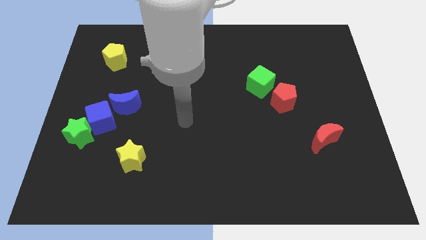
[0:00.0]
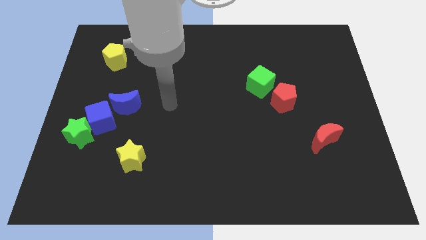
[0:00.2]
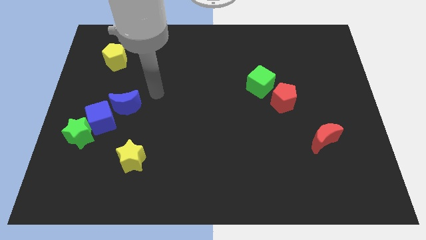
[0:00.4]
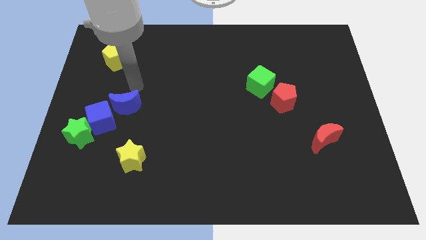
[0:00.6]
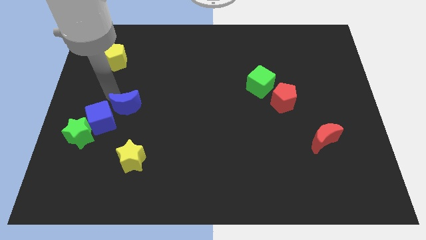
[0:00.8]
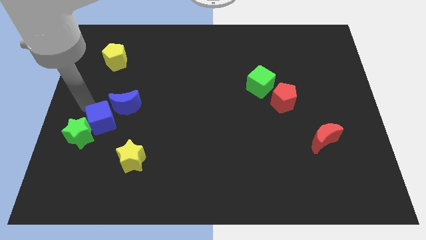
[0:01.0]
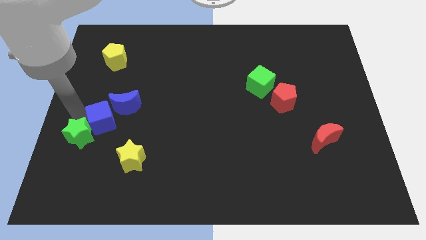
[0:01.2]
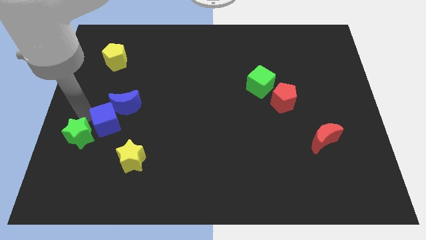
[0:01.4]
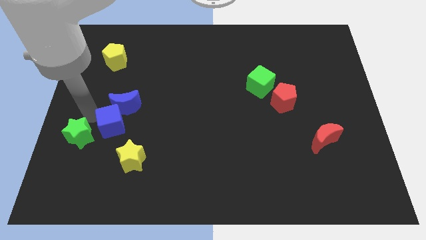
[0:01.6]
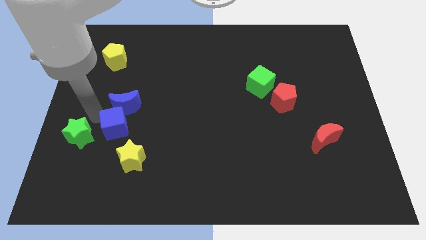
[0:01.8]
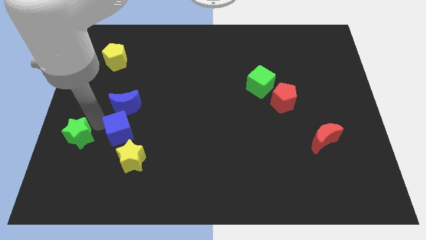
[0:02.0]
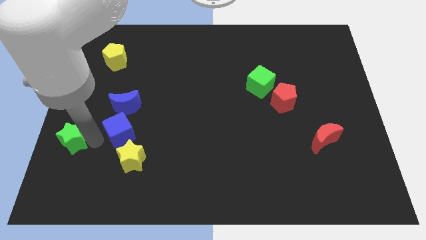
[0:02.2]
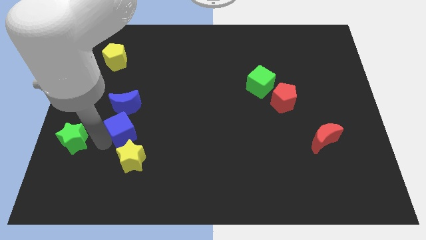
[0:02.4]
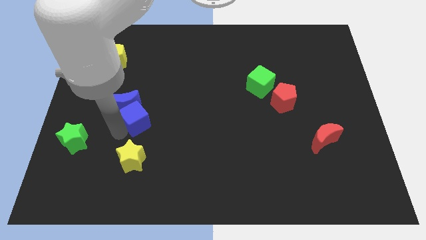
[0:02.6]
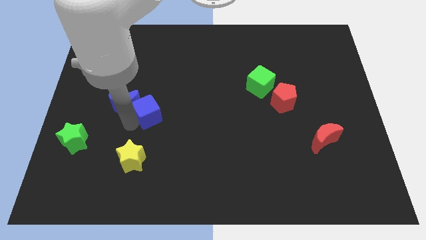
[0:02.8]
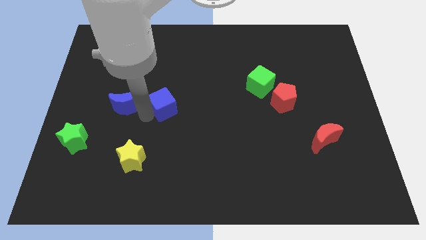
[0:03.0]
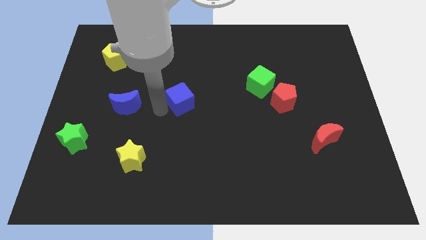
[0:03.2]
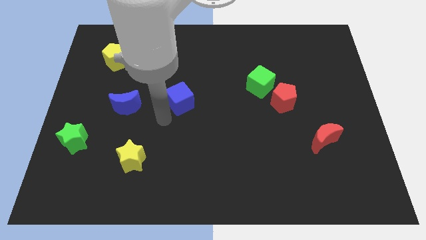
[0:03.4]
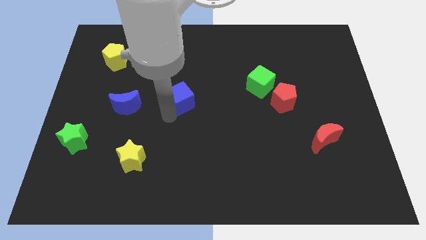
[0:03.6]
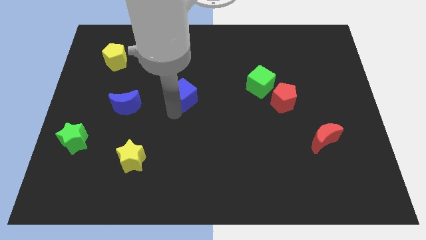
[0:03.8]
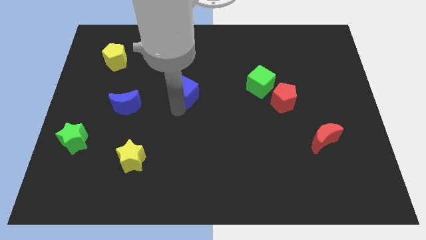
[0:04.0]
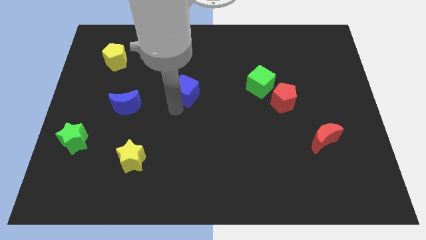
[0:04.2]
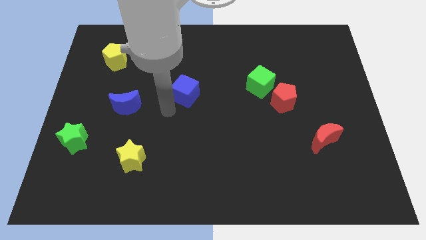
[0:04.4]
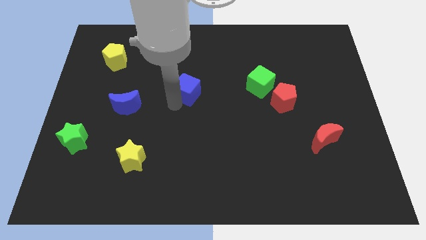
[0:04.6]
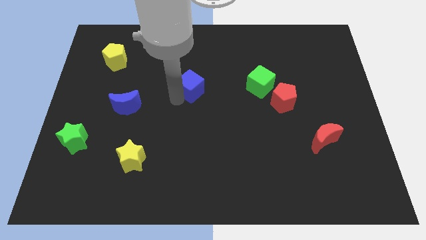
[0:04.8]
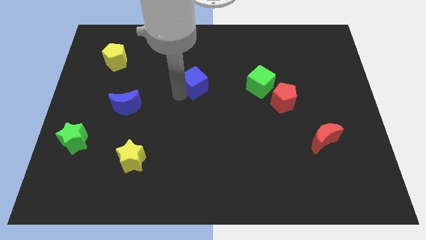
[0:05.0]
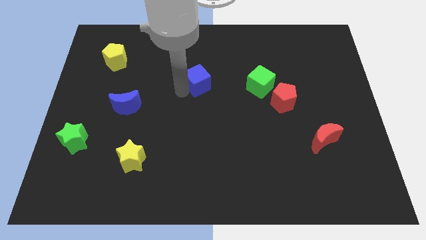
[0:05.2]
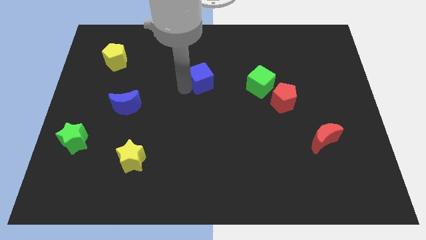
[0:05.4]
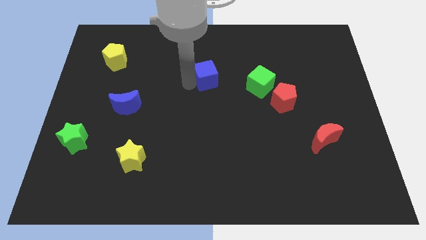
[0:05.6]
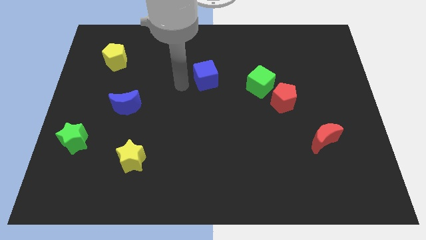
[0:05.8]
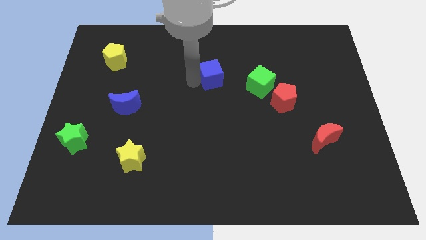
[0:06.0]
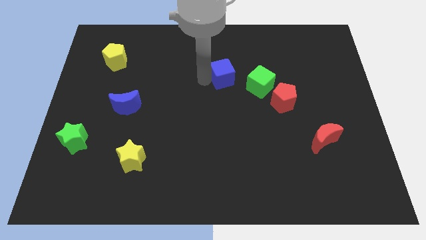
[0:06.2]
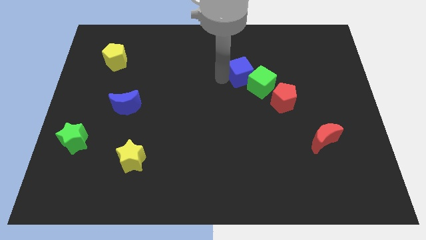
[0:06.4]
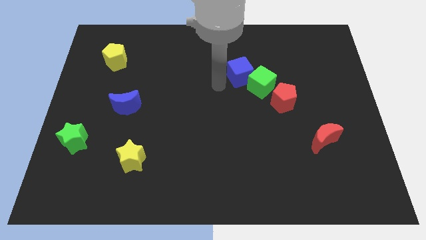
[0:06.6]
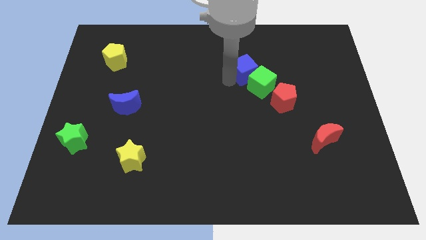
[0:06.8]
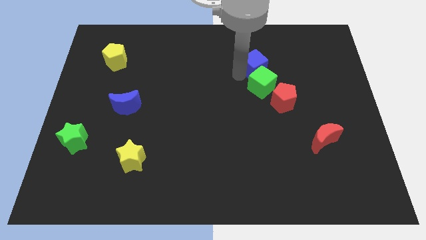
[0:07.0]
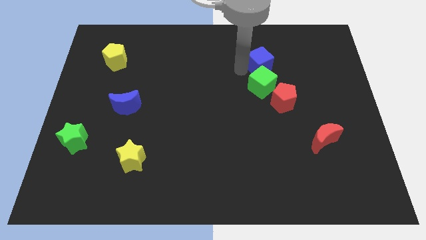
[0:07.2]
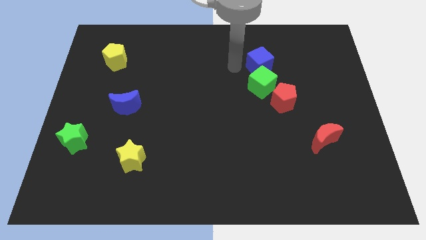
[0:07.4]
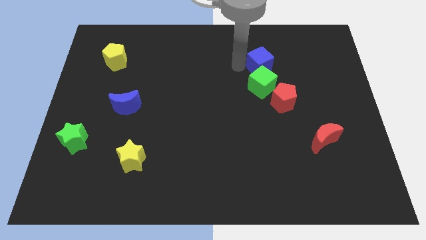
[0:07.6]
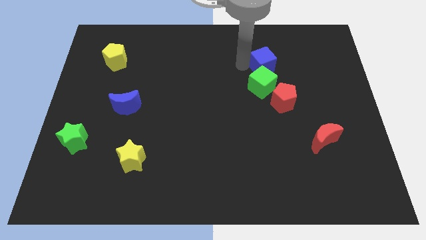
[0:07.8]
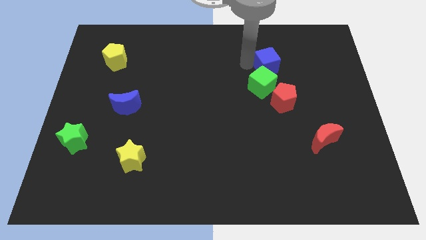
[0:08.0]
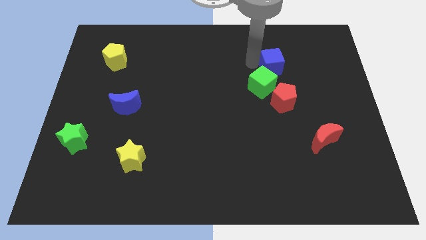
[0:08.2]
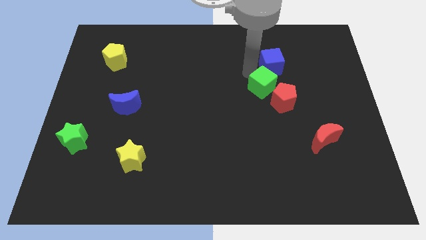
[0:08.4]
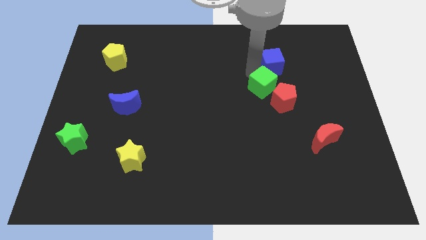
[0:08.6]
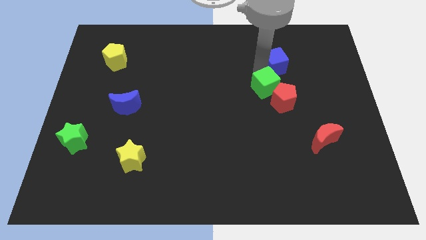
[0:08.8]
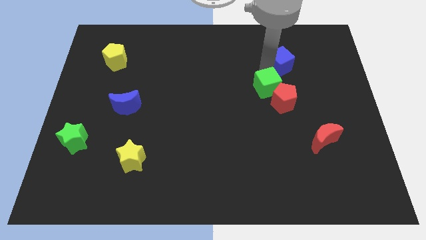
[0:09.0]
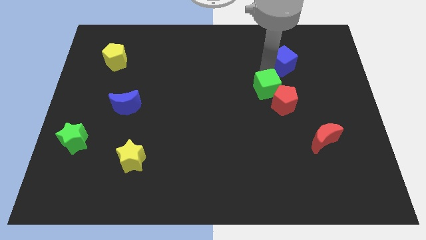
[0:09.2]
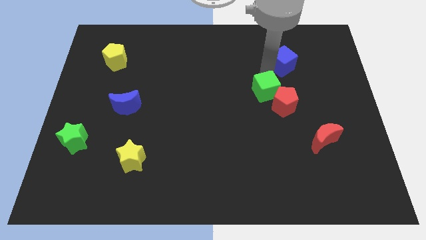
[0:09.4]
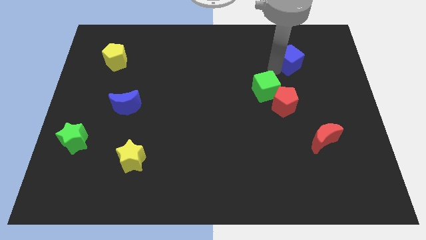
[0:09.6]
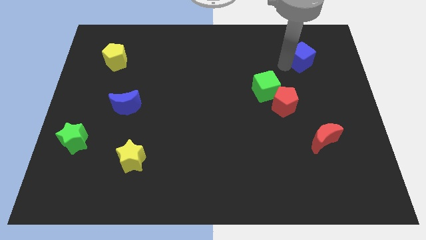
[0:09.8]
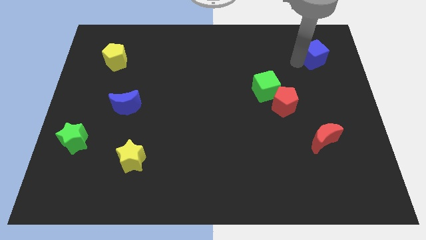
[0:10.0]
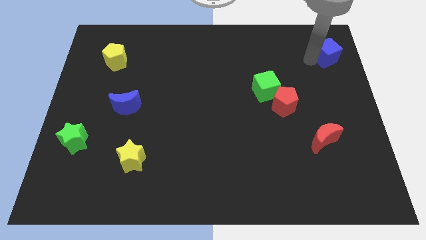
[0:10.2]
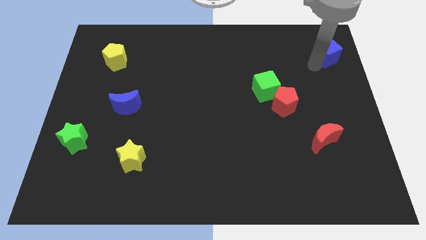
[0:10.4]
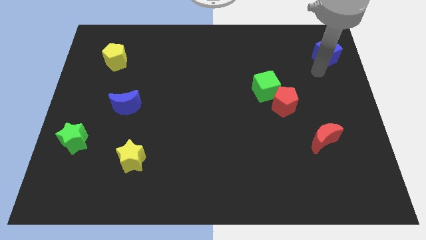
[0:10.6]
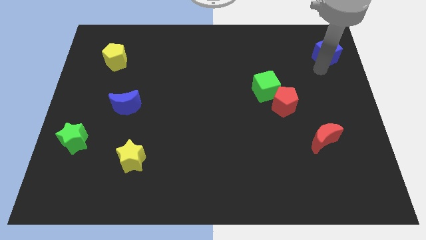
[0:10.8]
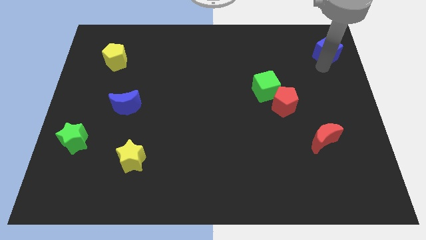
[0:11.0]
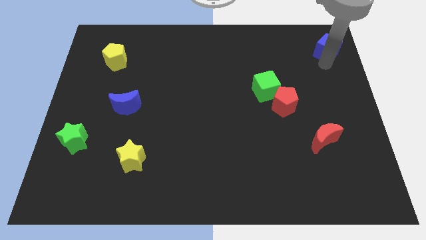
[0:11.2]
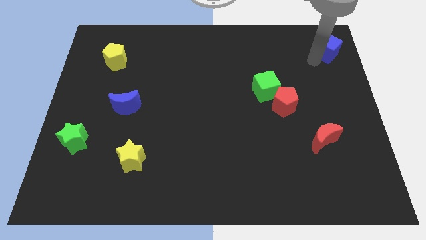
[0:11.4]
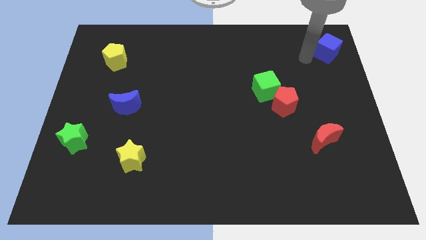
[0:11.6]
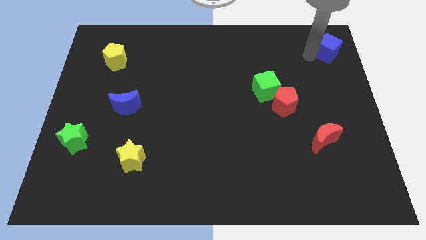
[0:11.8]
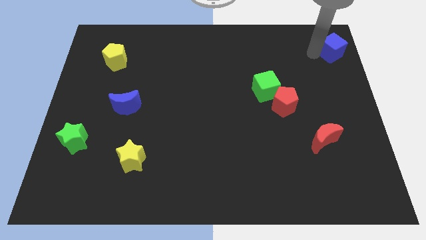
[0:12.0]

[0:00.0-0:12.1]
slide the blue cube to the upper right corner

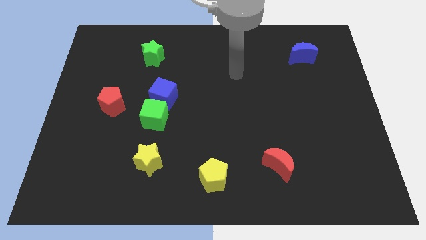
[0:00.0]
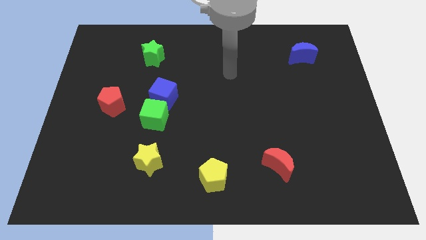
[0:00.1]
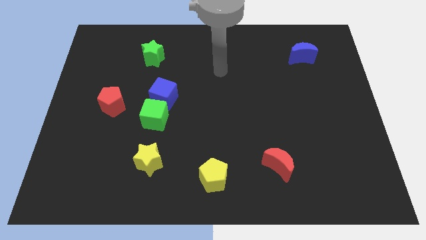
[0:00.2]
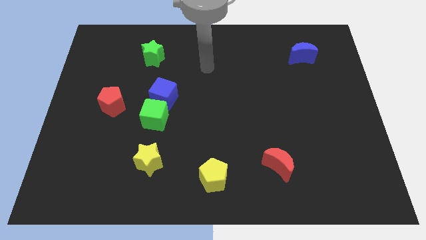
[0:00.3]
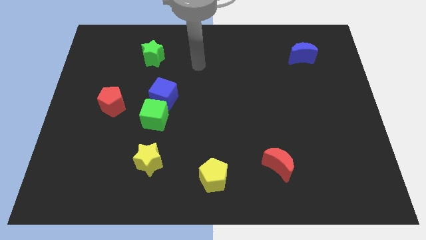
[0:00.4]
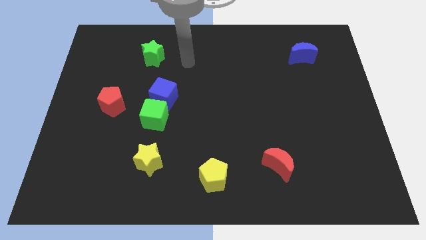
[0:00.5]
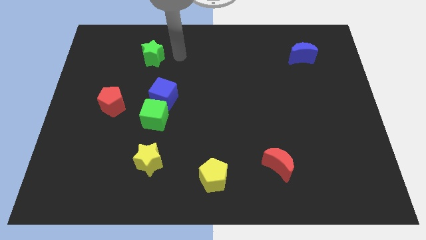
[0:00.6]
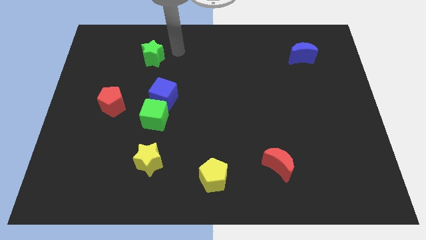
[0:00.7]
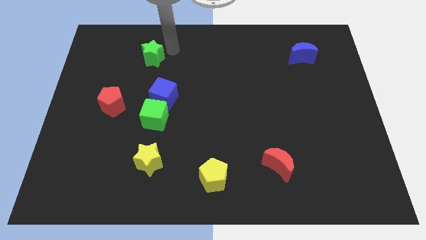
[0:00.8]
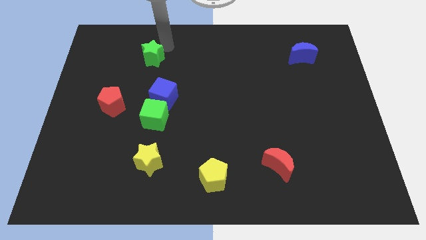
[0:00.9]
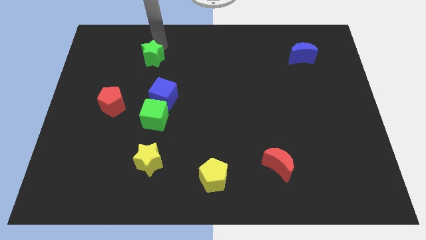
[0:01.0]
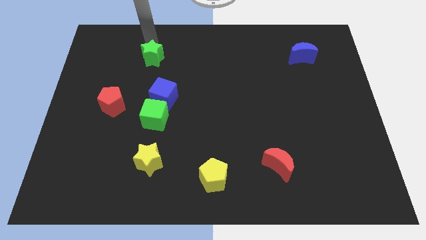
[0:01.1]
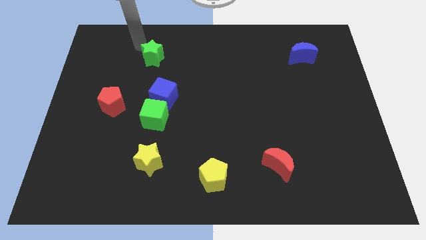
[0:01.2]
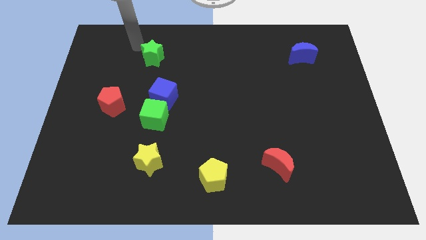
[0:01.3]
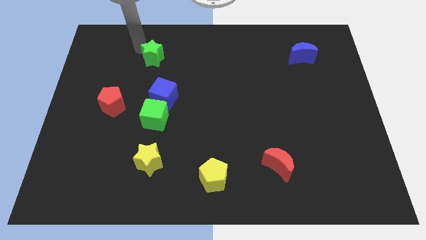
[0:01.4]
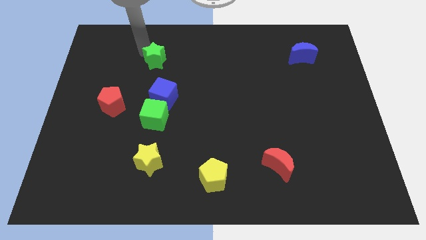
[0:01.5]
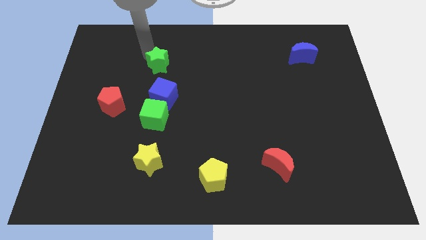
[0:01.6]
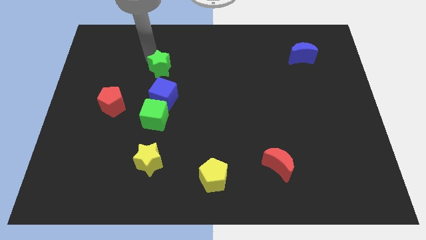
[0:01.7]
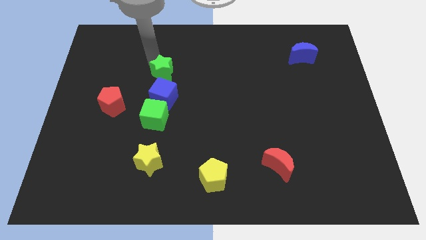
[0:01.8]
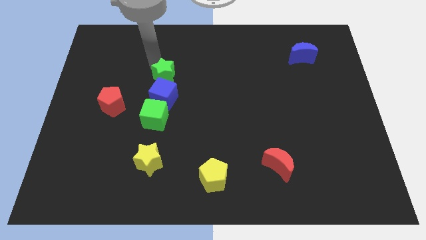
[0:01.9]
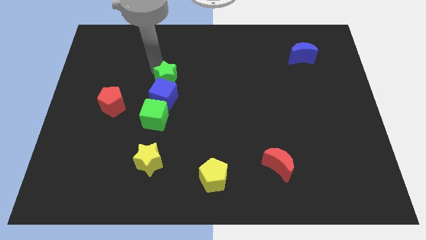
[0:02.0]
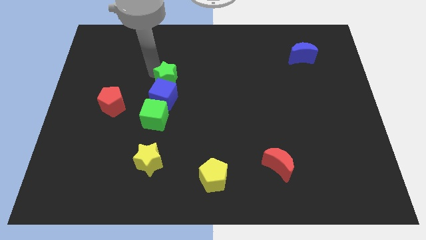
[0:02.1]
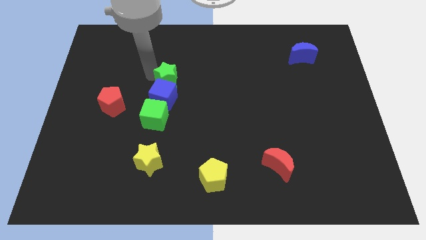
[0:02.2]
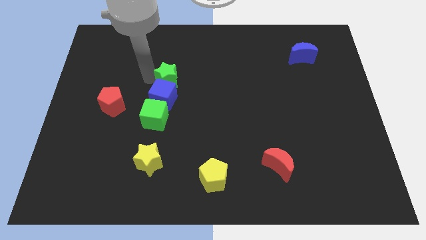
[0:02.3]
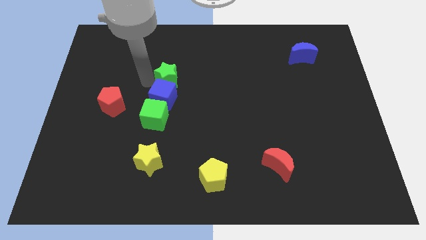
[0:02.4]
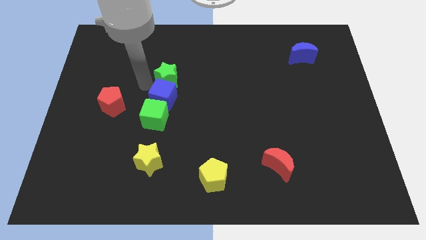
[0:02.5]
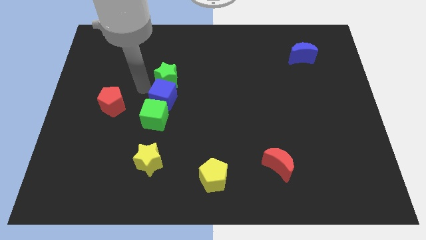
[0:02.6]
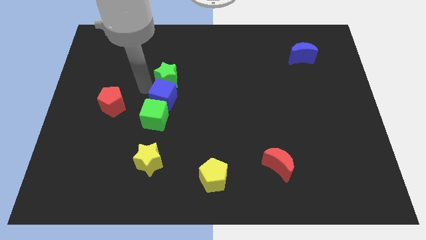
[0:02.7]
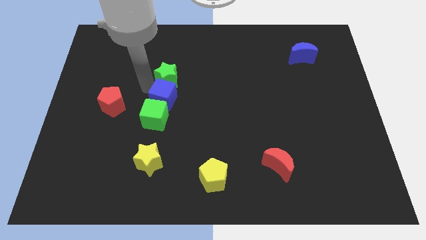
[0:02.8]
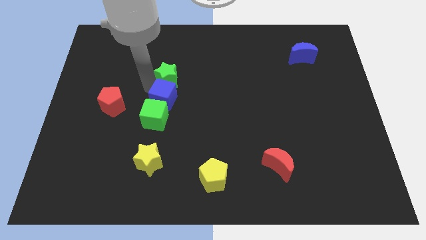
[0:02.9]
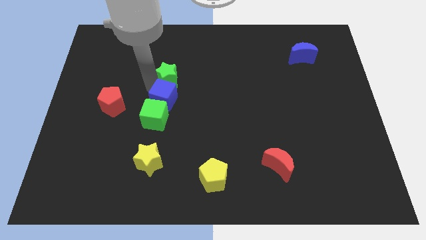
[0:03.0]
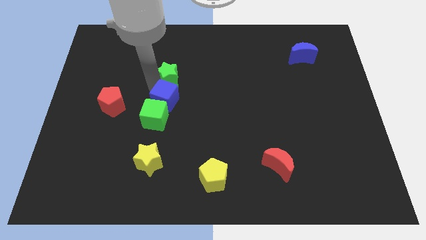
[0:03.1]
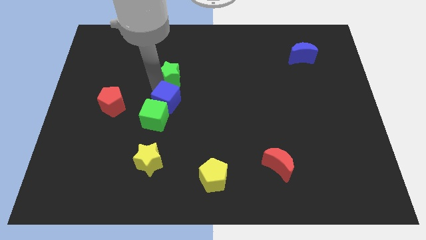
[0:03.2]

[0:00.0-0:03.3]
push the green star to the center
